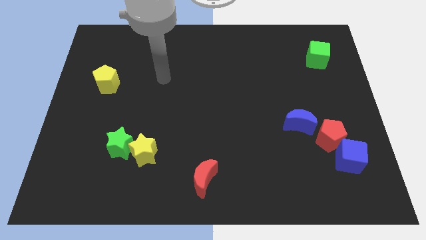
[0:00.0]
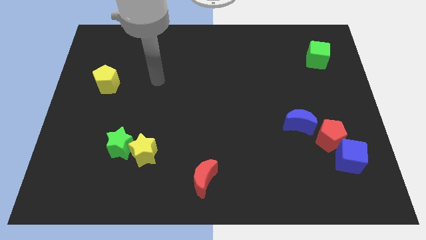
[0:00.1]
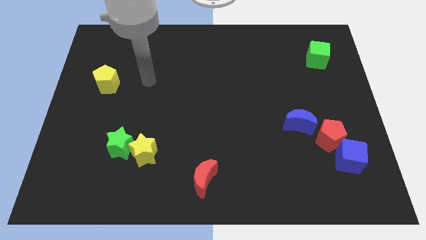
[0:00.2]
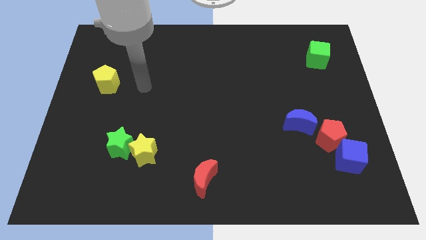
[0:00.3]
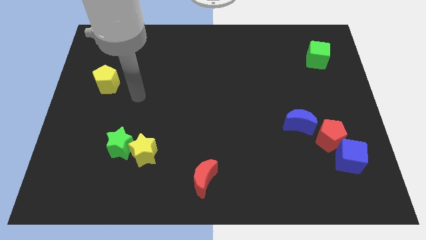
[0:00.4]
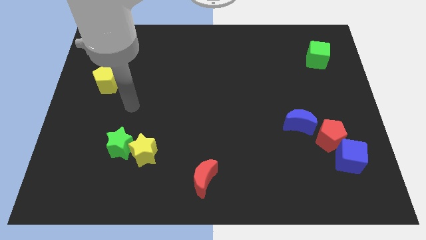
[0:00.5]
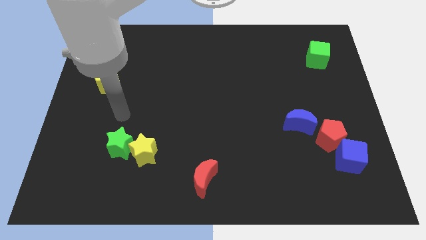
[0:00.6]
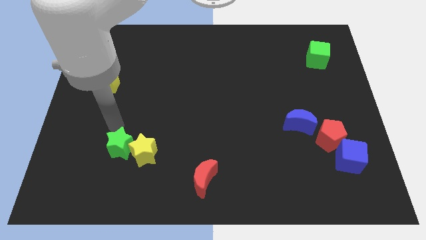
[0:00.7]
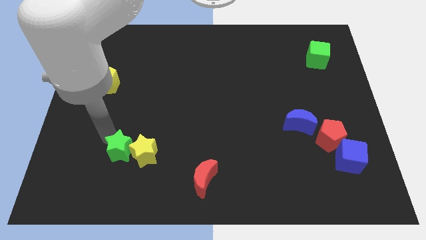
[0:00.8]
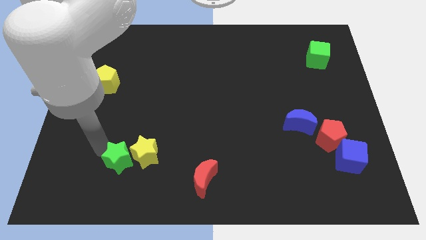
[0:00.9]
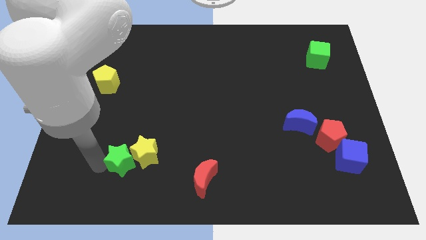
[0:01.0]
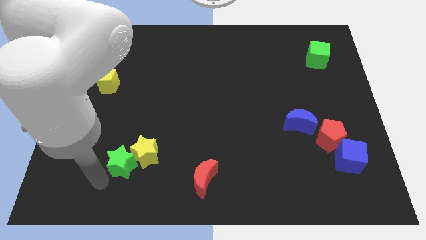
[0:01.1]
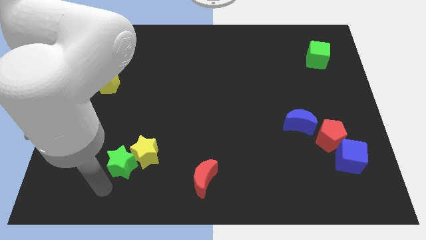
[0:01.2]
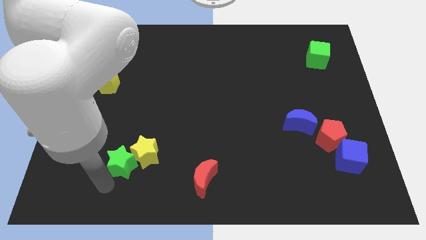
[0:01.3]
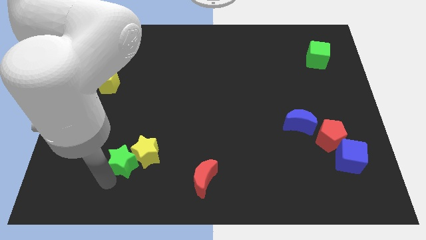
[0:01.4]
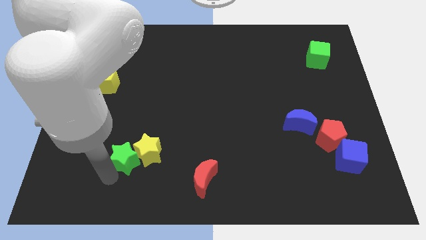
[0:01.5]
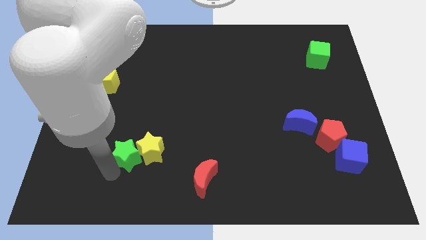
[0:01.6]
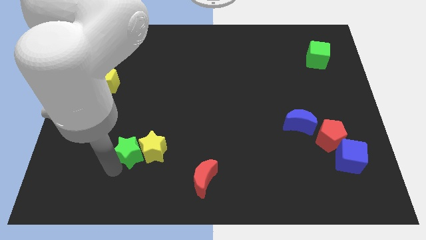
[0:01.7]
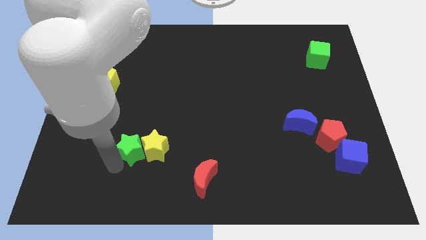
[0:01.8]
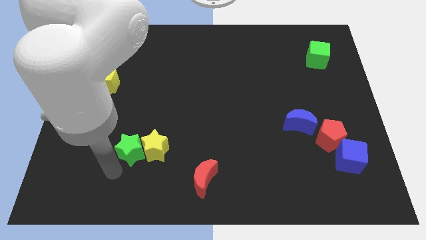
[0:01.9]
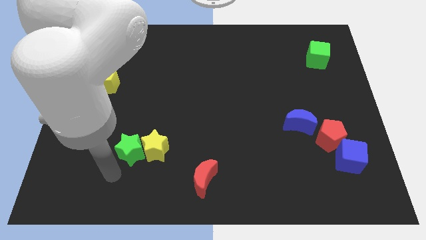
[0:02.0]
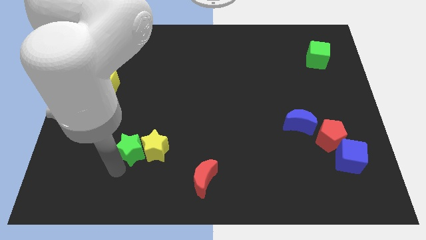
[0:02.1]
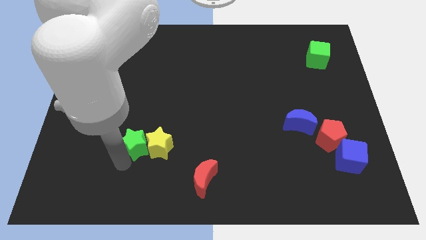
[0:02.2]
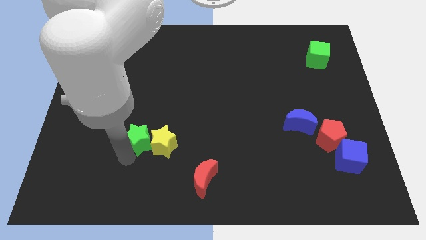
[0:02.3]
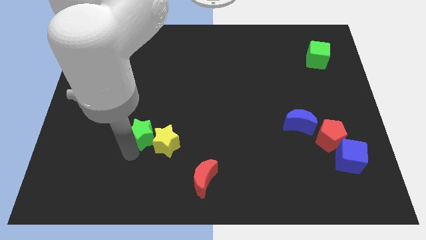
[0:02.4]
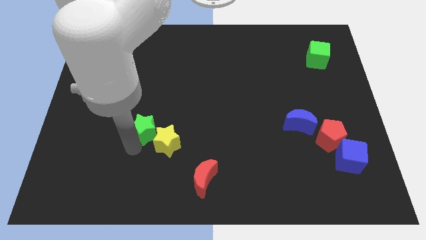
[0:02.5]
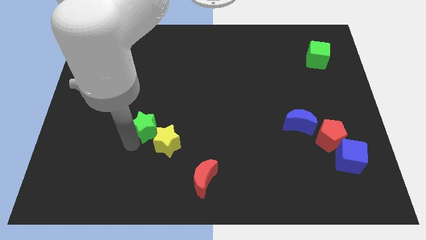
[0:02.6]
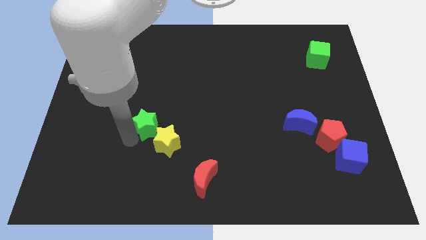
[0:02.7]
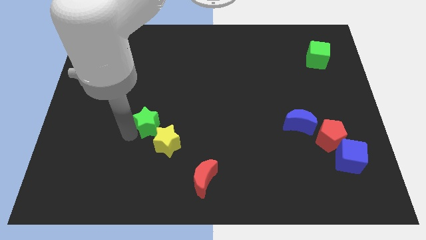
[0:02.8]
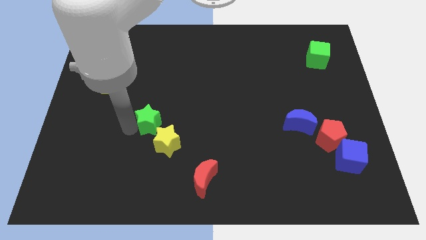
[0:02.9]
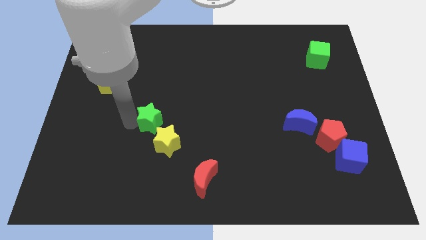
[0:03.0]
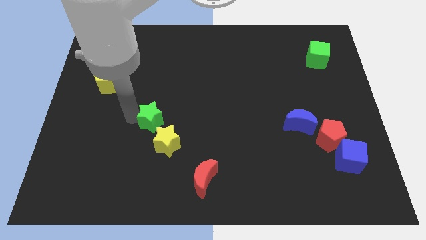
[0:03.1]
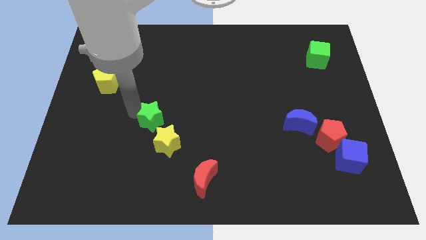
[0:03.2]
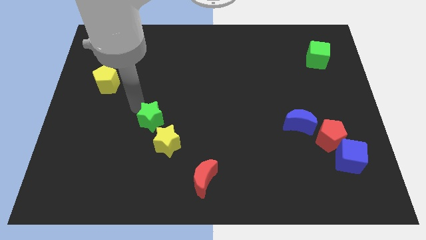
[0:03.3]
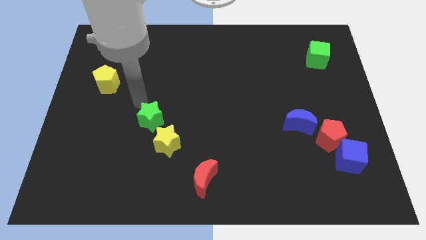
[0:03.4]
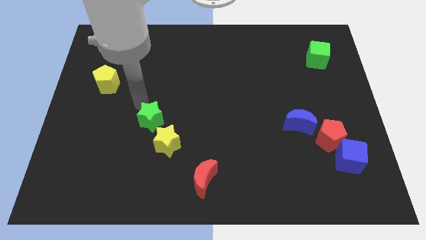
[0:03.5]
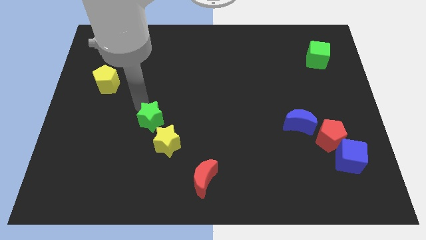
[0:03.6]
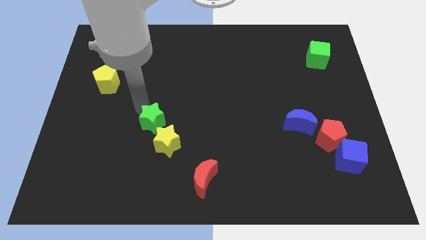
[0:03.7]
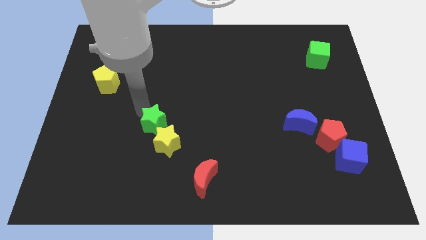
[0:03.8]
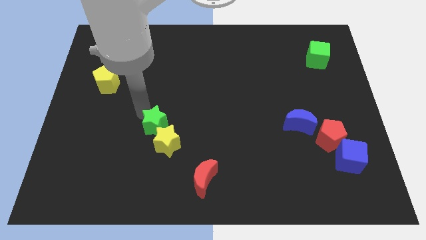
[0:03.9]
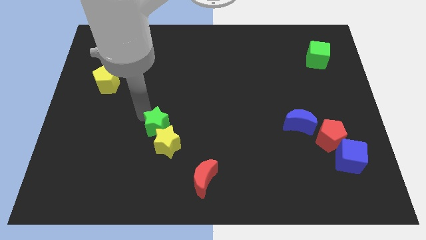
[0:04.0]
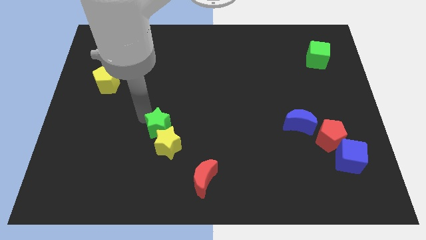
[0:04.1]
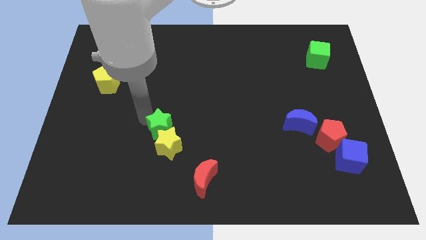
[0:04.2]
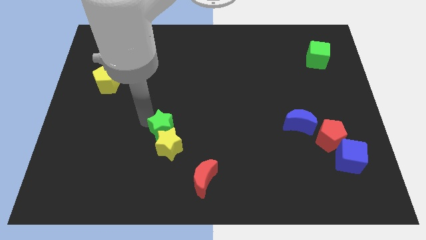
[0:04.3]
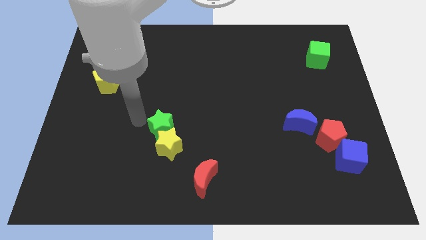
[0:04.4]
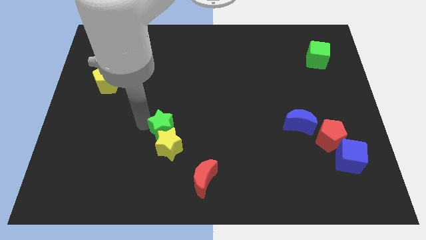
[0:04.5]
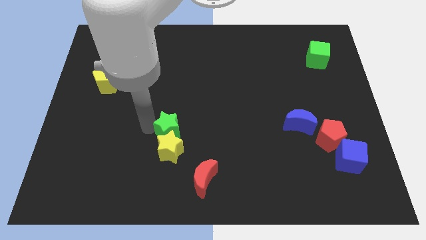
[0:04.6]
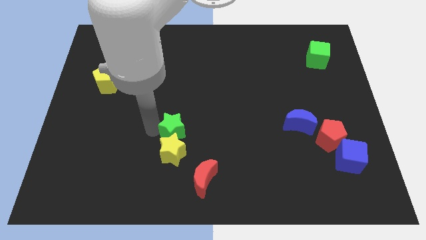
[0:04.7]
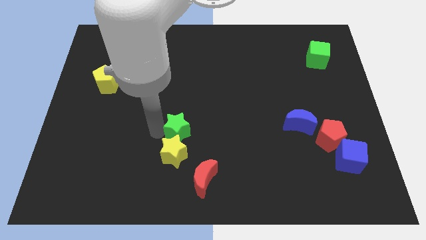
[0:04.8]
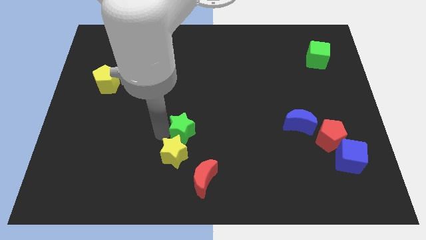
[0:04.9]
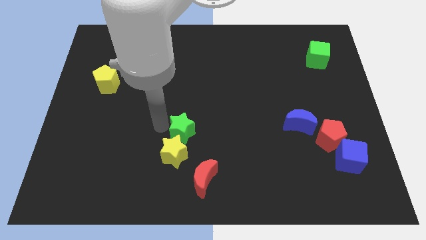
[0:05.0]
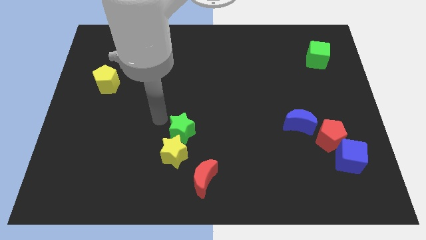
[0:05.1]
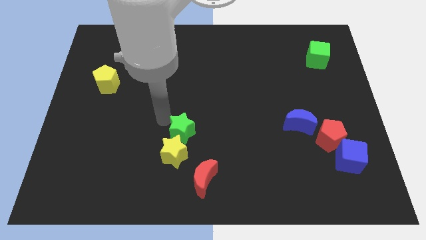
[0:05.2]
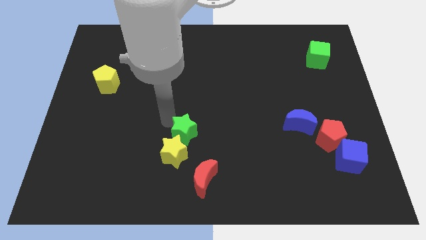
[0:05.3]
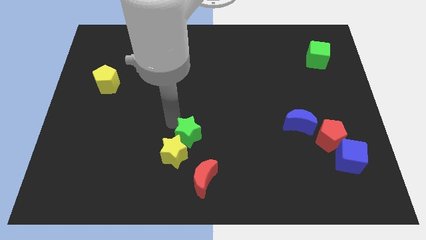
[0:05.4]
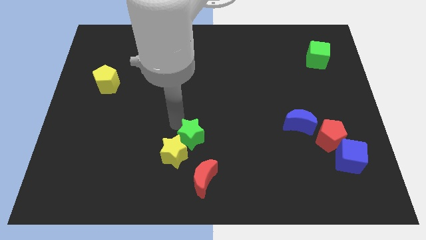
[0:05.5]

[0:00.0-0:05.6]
slide the green star to the right of the yellow star

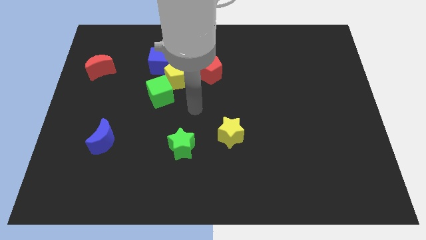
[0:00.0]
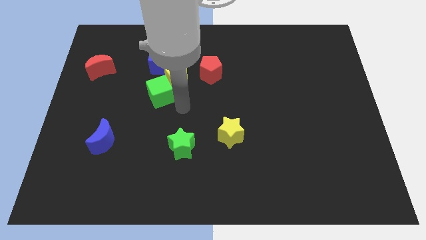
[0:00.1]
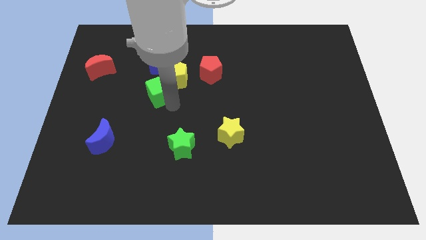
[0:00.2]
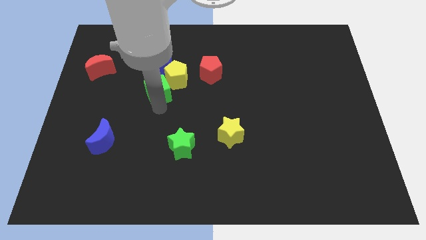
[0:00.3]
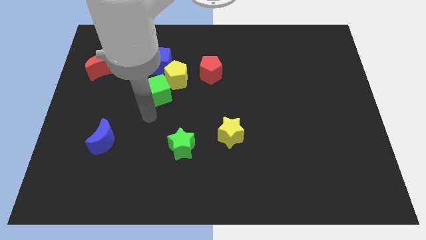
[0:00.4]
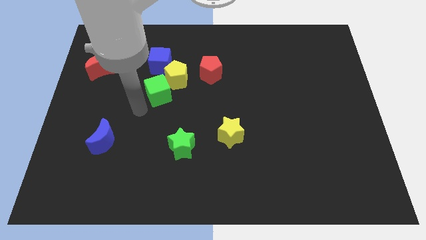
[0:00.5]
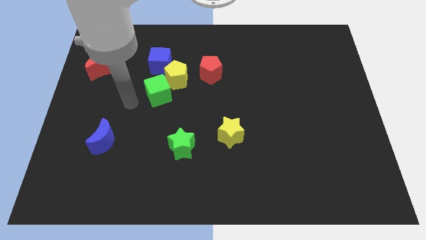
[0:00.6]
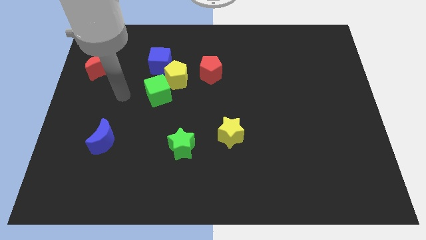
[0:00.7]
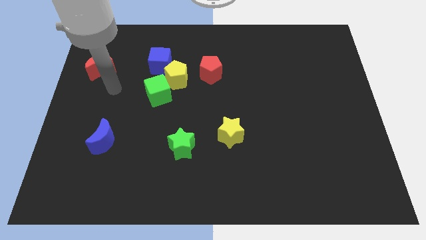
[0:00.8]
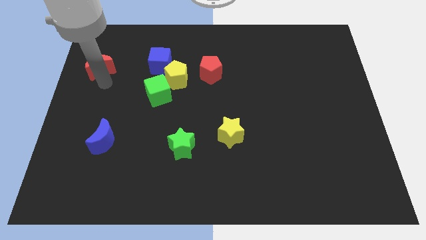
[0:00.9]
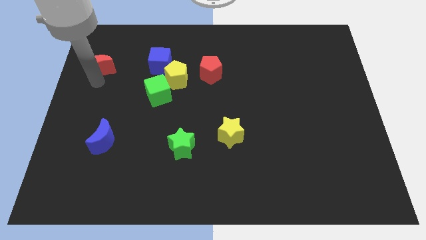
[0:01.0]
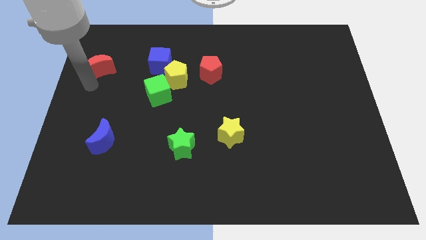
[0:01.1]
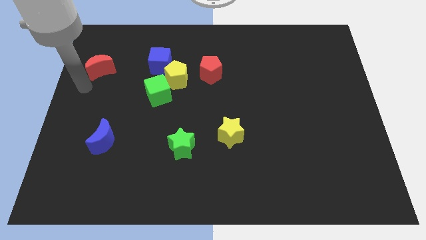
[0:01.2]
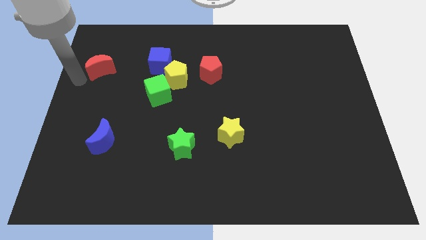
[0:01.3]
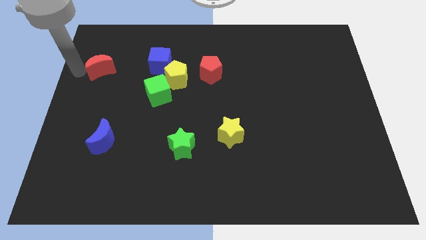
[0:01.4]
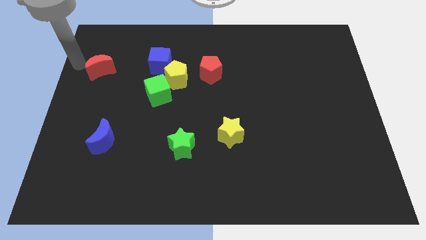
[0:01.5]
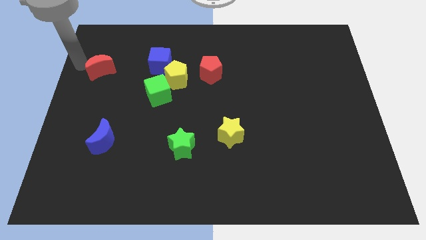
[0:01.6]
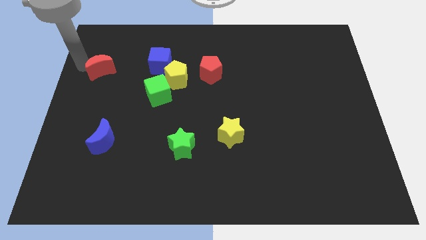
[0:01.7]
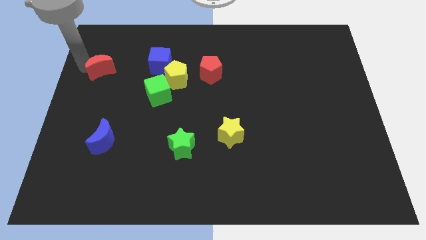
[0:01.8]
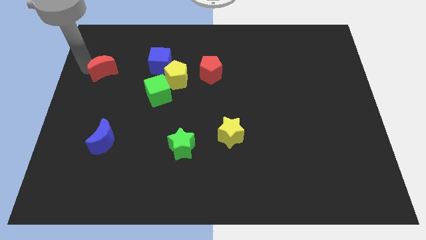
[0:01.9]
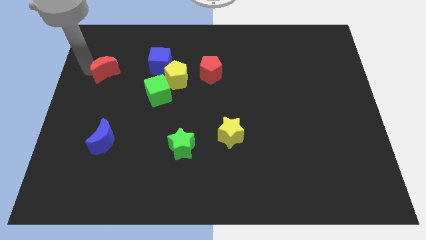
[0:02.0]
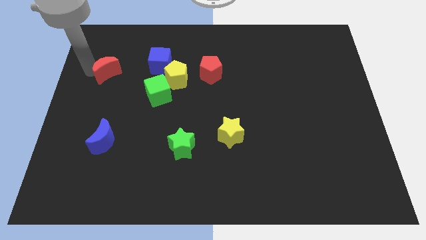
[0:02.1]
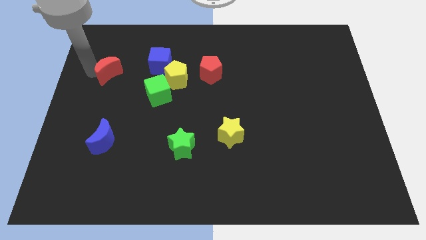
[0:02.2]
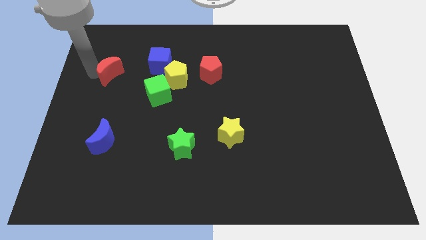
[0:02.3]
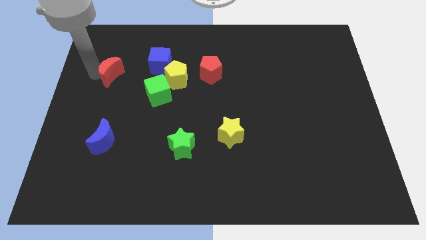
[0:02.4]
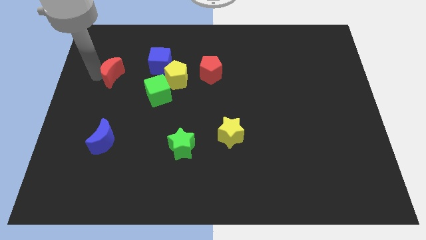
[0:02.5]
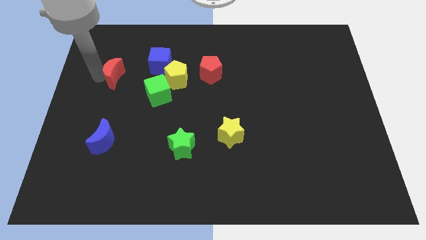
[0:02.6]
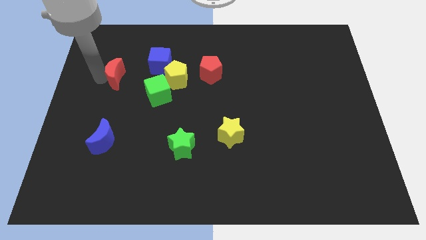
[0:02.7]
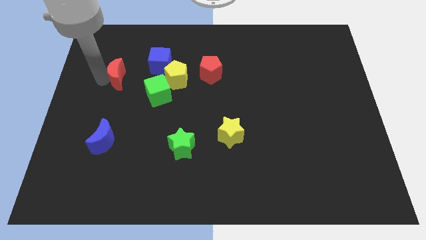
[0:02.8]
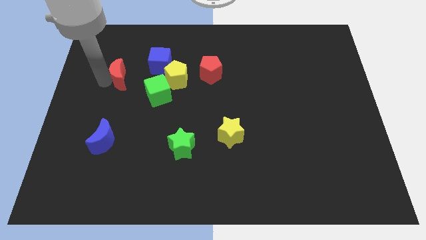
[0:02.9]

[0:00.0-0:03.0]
put the red moon to the top left side of the green cube

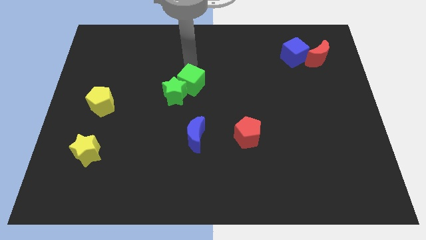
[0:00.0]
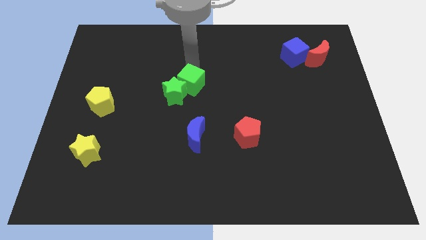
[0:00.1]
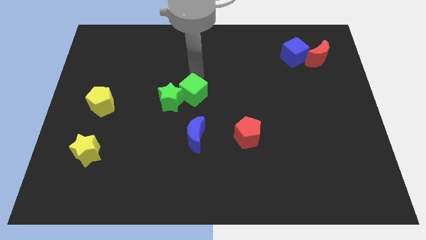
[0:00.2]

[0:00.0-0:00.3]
push the green star to the right side of the yellow pentagon
